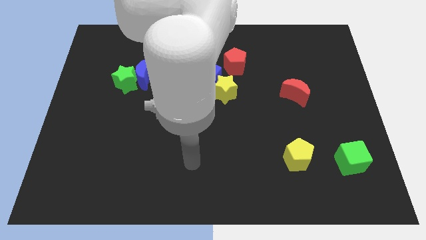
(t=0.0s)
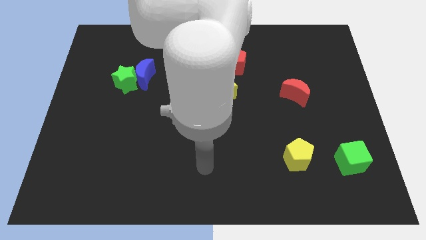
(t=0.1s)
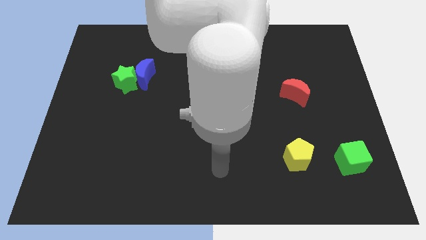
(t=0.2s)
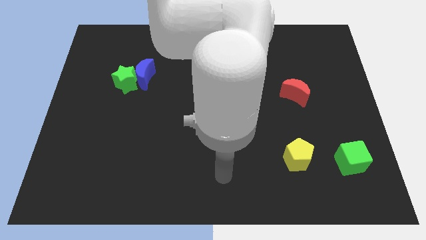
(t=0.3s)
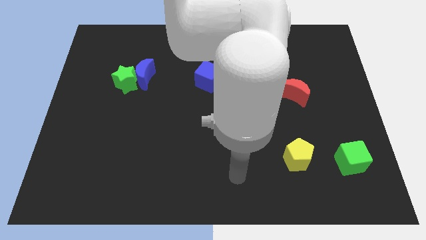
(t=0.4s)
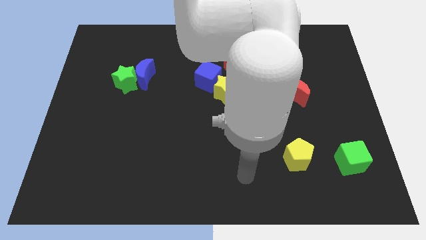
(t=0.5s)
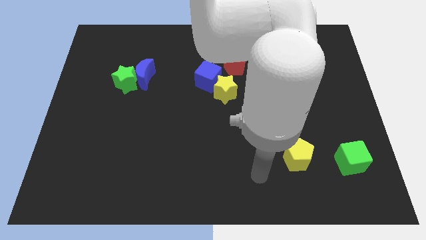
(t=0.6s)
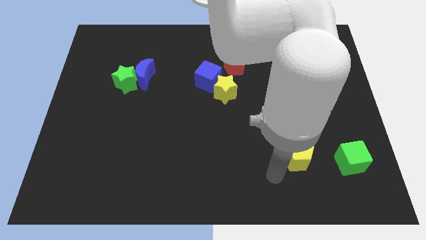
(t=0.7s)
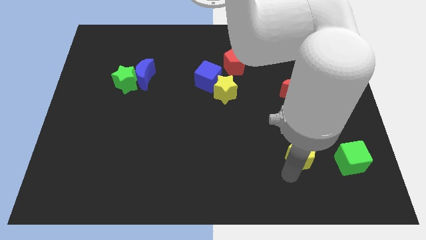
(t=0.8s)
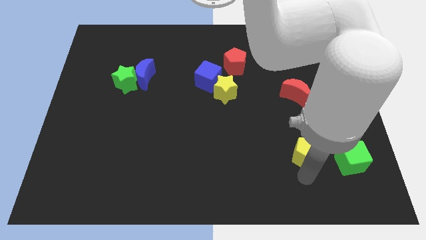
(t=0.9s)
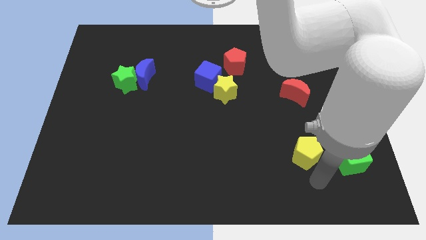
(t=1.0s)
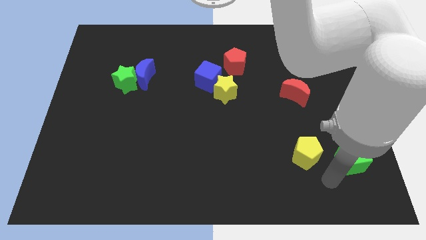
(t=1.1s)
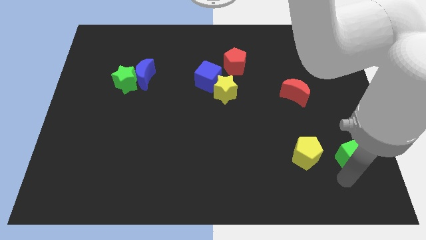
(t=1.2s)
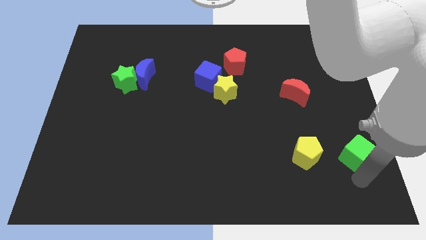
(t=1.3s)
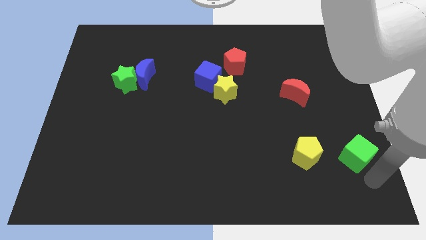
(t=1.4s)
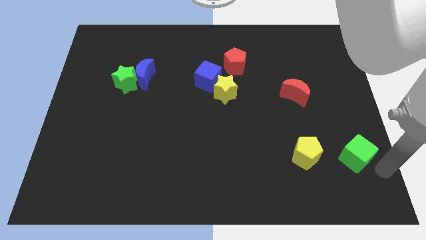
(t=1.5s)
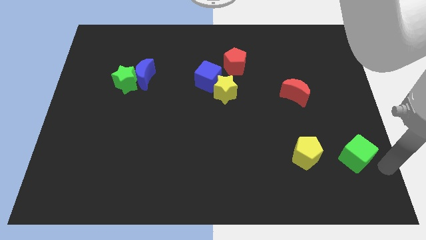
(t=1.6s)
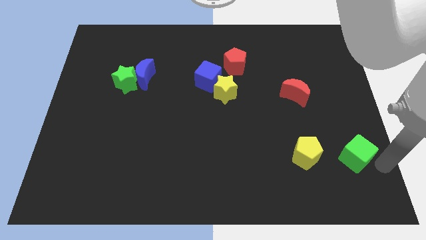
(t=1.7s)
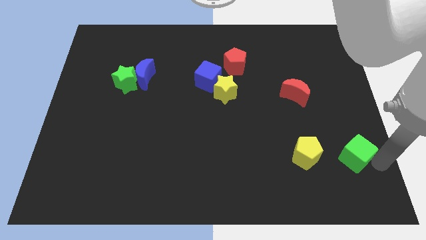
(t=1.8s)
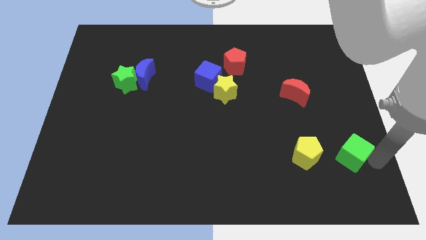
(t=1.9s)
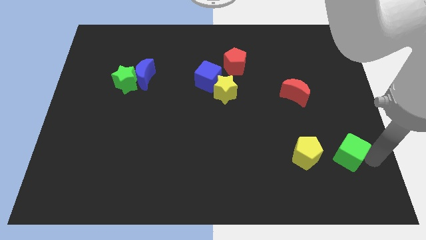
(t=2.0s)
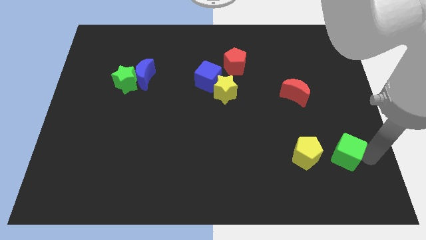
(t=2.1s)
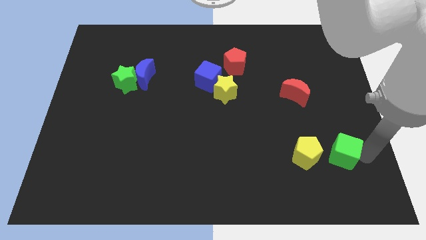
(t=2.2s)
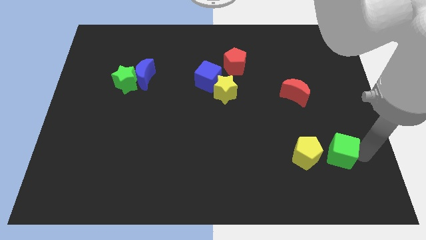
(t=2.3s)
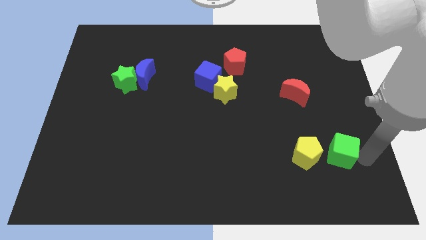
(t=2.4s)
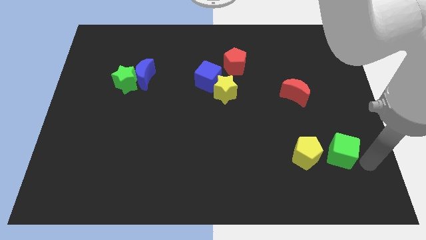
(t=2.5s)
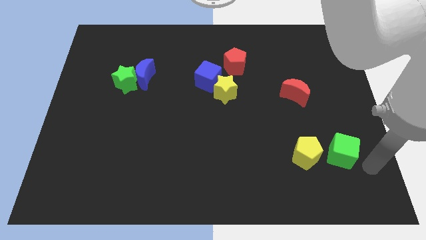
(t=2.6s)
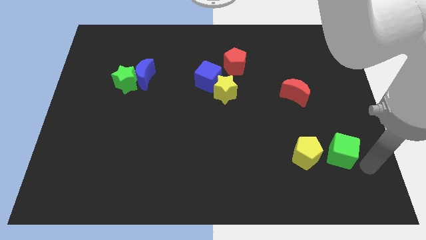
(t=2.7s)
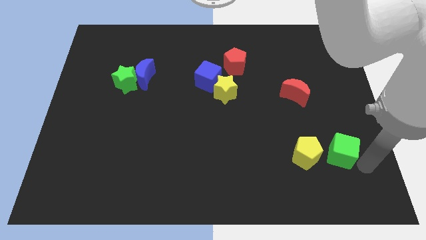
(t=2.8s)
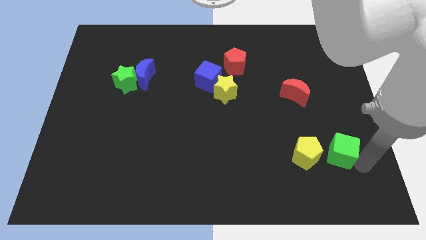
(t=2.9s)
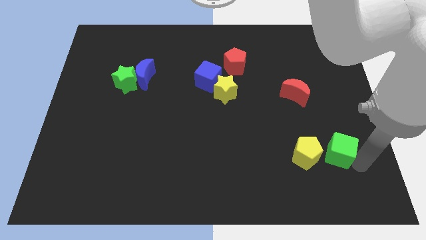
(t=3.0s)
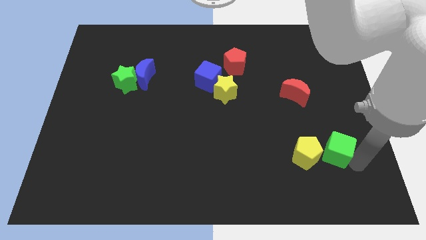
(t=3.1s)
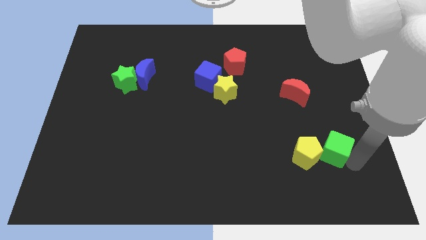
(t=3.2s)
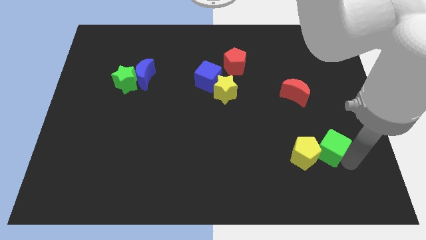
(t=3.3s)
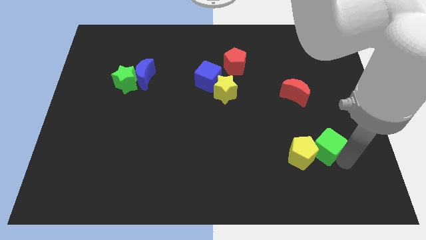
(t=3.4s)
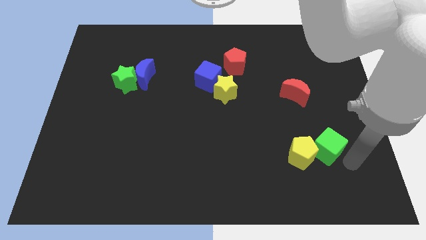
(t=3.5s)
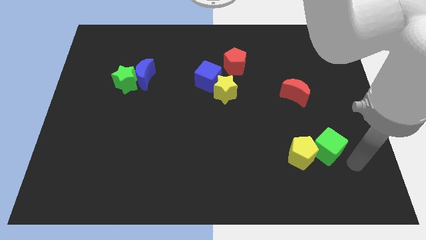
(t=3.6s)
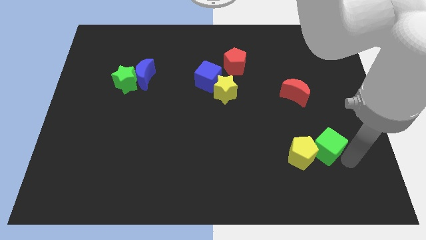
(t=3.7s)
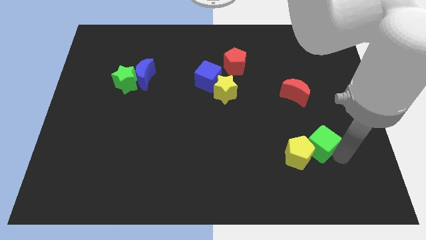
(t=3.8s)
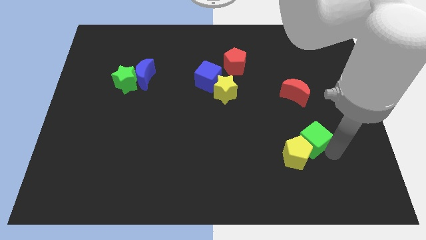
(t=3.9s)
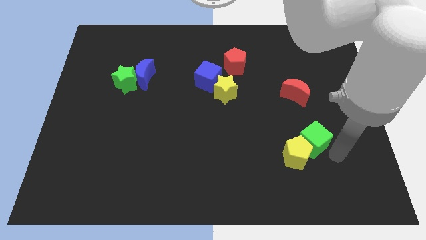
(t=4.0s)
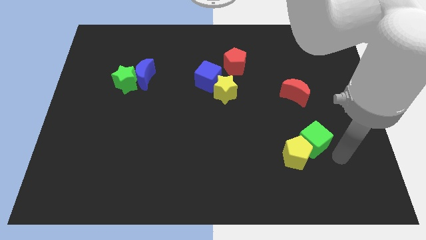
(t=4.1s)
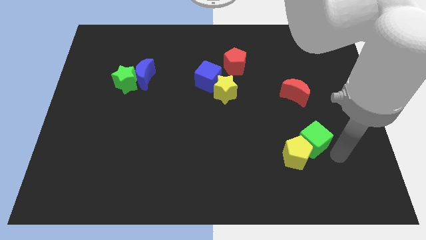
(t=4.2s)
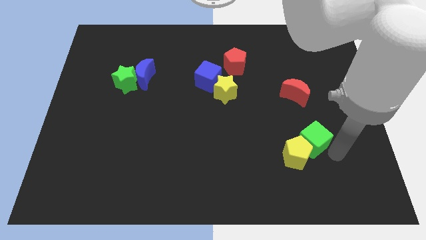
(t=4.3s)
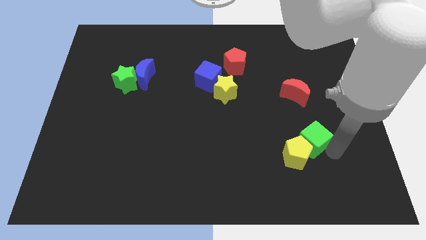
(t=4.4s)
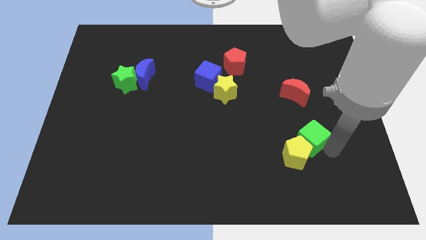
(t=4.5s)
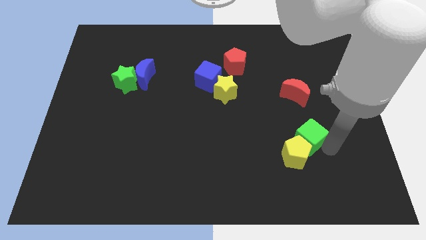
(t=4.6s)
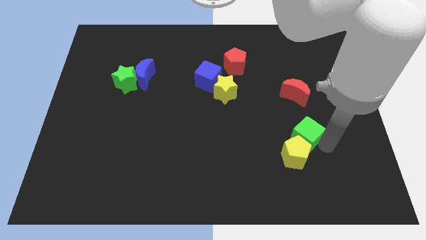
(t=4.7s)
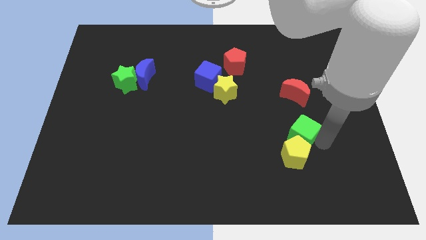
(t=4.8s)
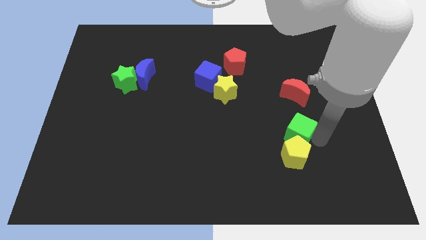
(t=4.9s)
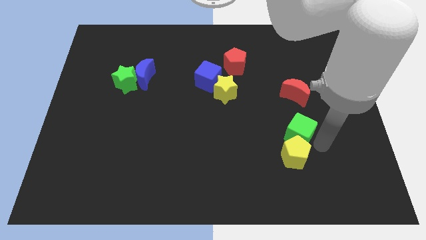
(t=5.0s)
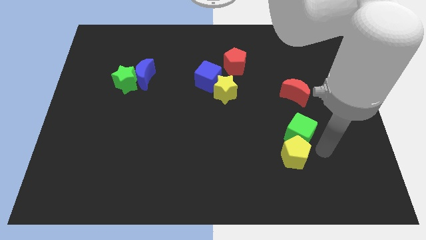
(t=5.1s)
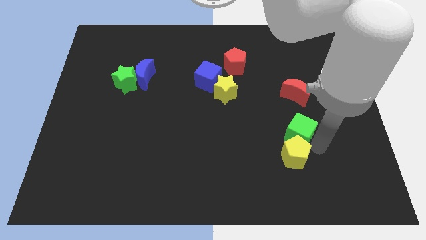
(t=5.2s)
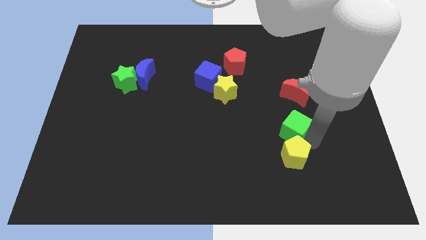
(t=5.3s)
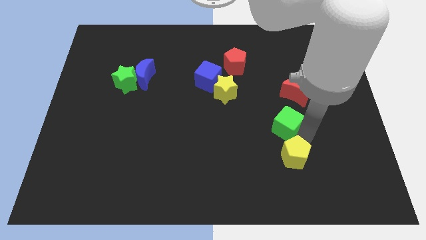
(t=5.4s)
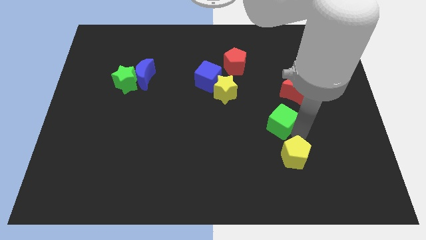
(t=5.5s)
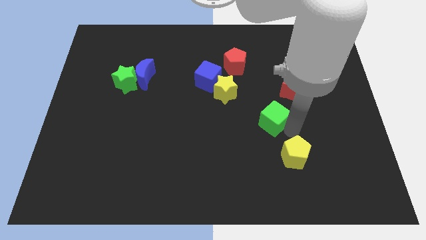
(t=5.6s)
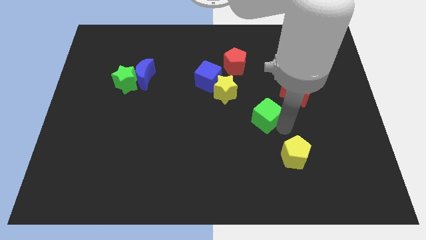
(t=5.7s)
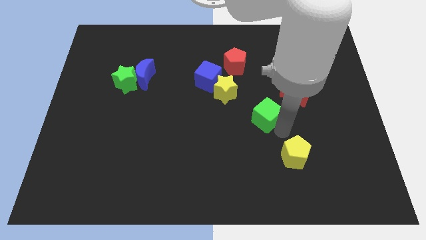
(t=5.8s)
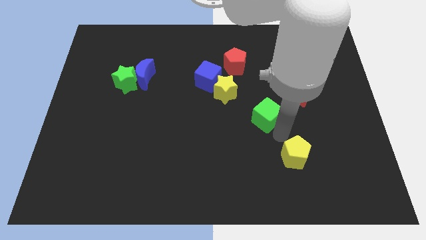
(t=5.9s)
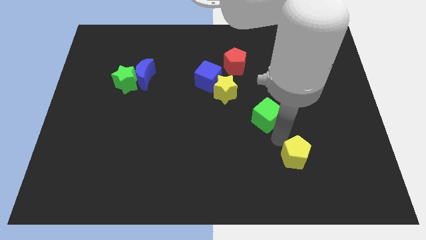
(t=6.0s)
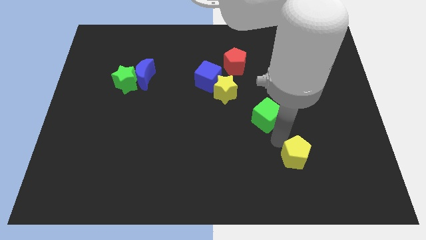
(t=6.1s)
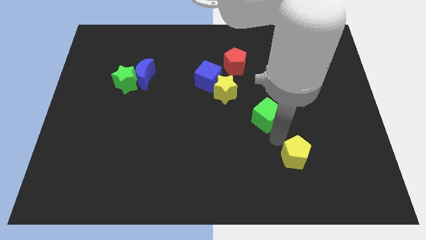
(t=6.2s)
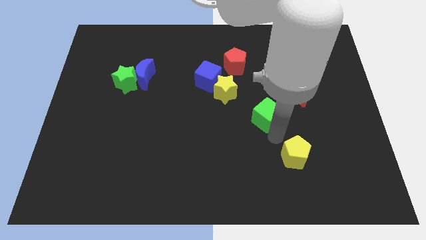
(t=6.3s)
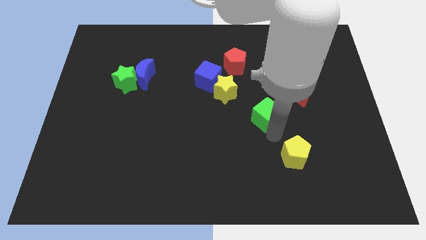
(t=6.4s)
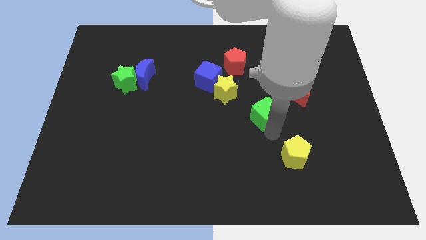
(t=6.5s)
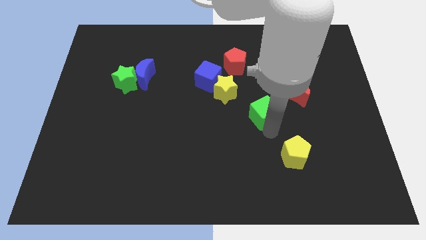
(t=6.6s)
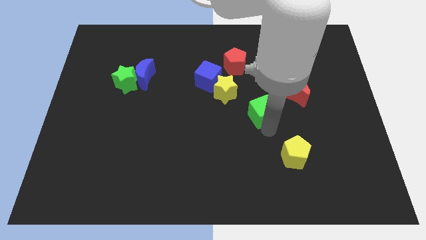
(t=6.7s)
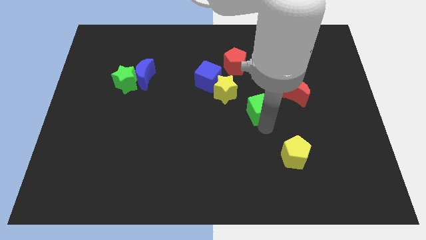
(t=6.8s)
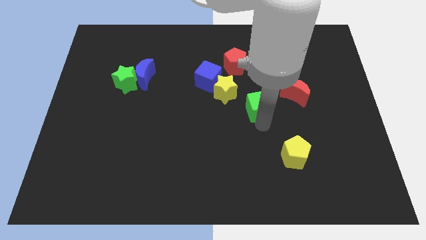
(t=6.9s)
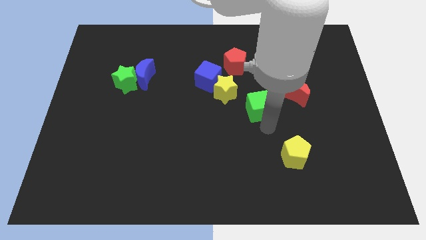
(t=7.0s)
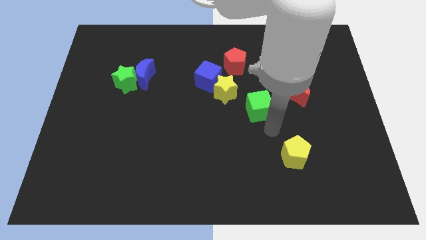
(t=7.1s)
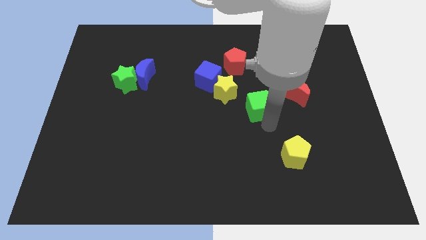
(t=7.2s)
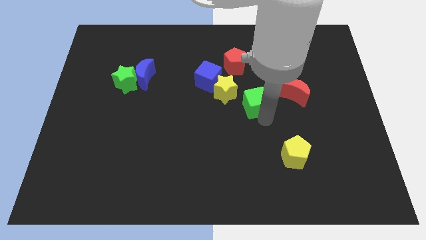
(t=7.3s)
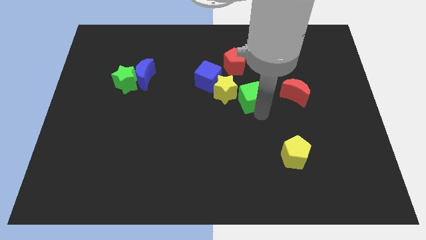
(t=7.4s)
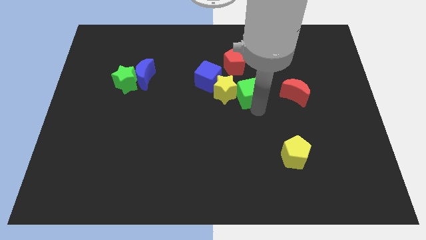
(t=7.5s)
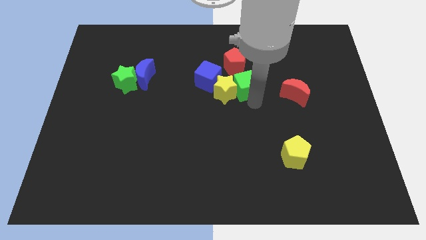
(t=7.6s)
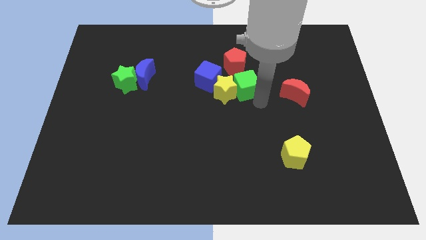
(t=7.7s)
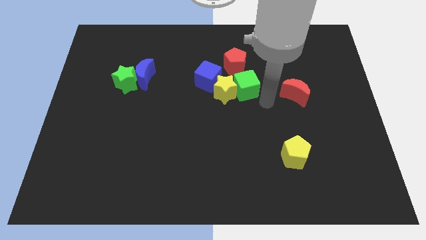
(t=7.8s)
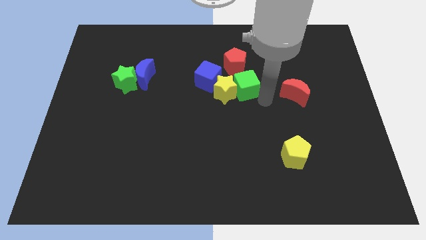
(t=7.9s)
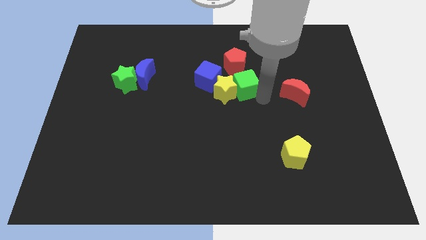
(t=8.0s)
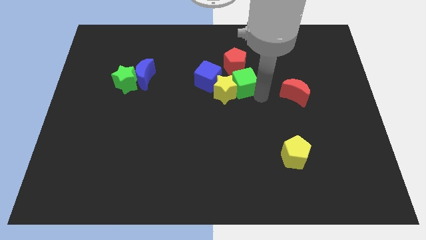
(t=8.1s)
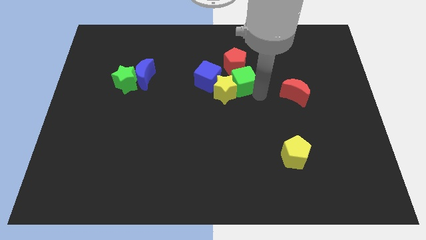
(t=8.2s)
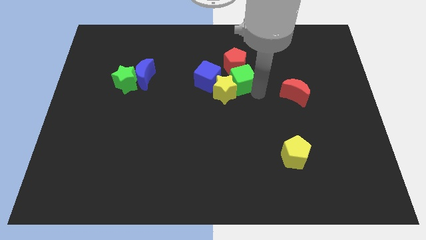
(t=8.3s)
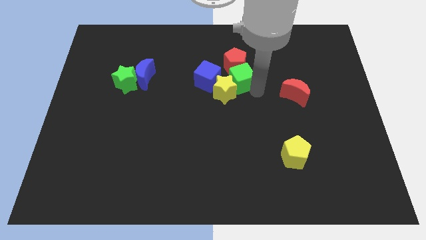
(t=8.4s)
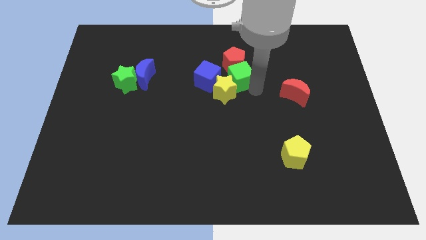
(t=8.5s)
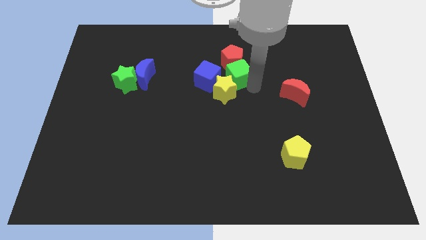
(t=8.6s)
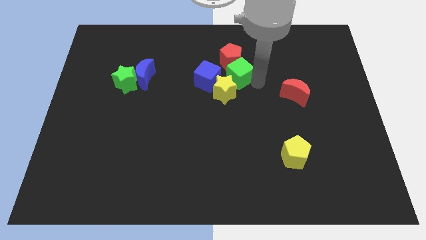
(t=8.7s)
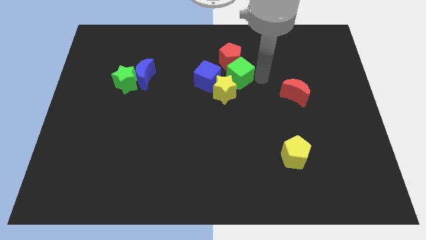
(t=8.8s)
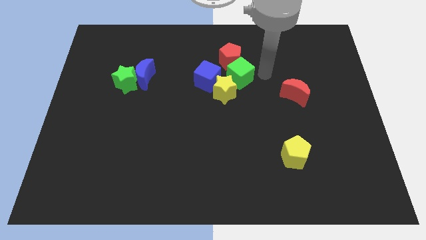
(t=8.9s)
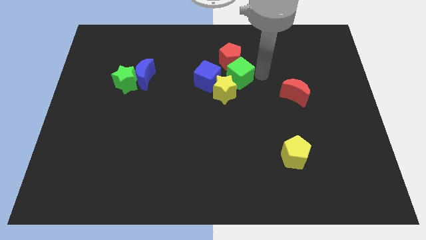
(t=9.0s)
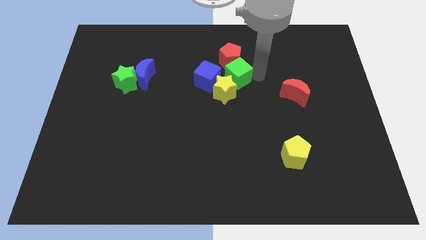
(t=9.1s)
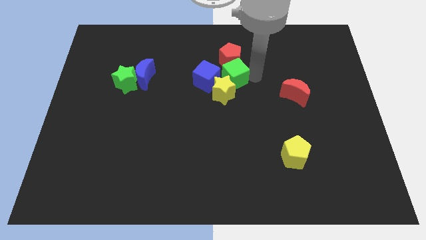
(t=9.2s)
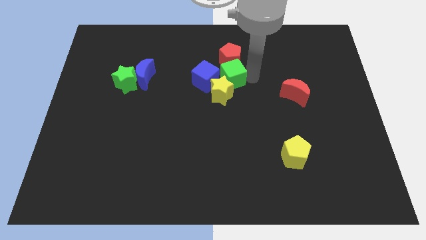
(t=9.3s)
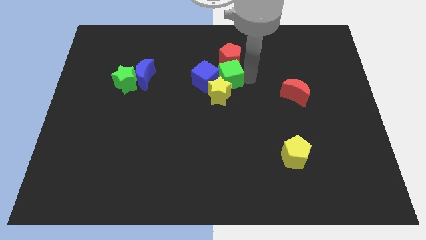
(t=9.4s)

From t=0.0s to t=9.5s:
move the green cube close to the blue cube
